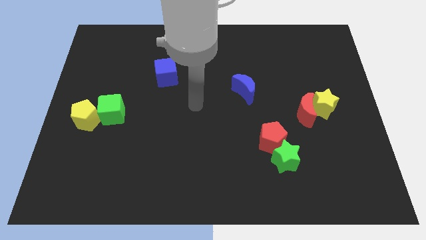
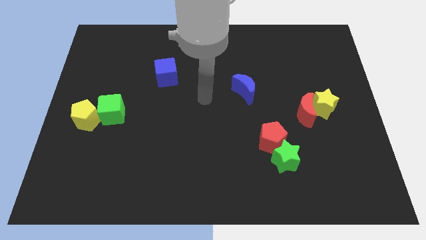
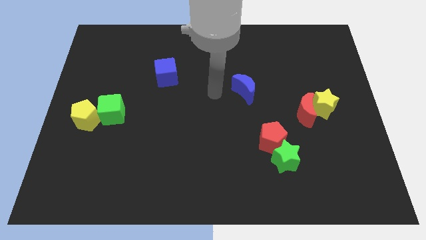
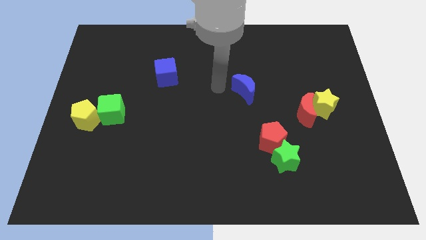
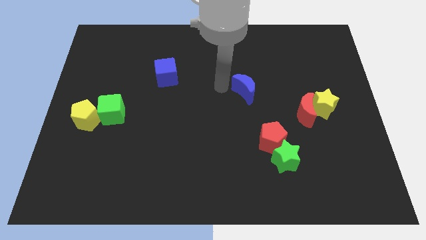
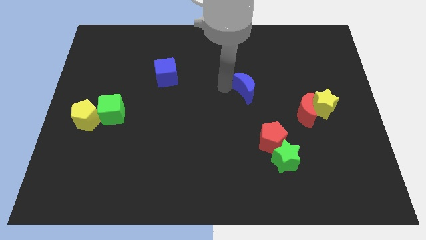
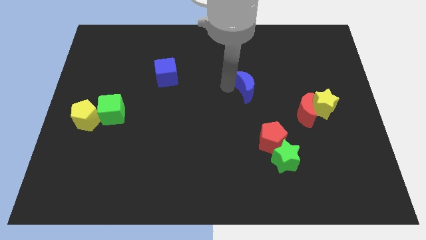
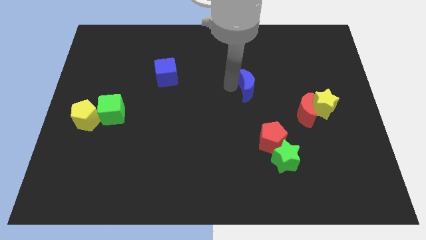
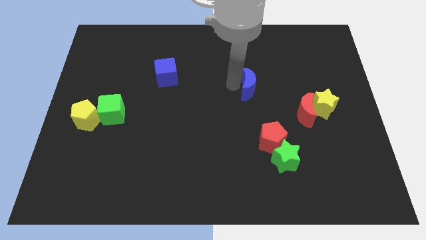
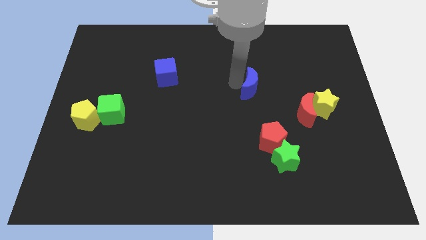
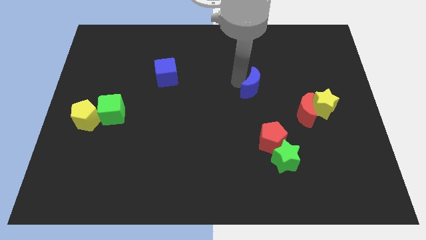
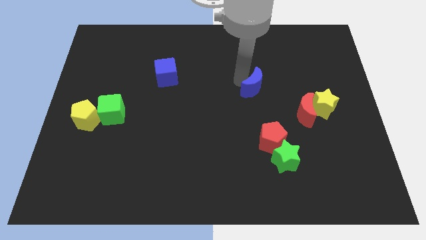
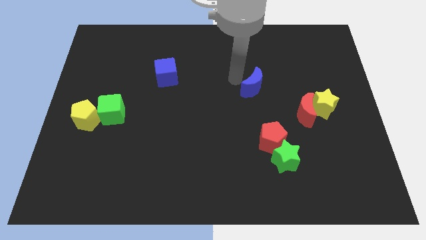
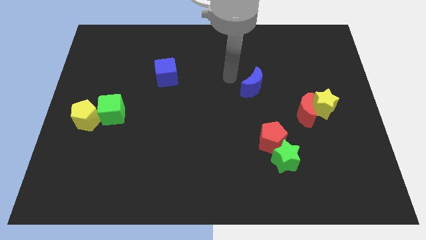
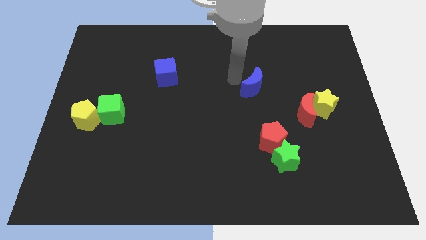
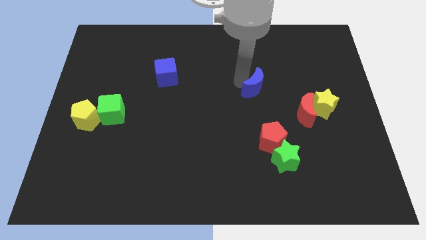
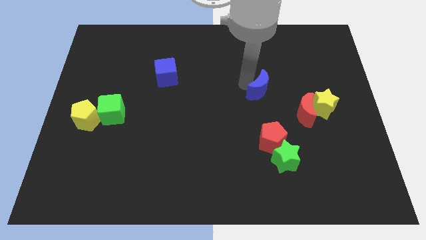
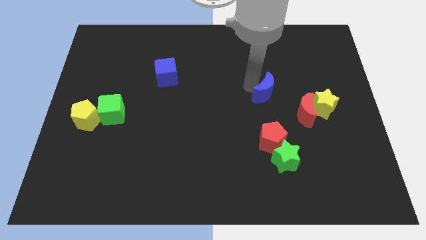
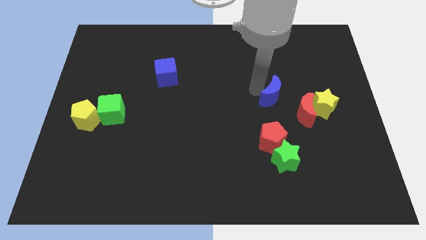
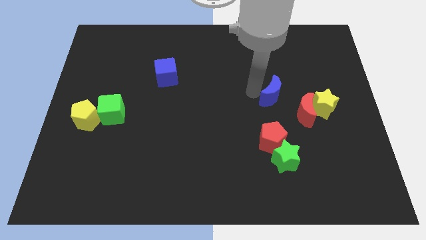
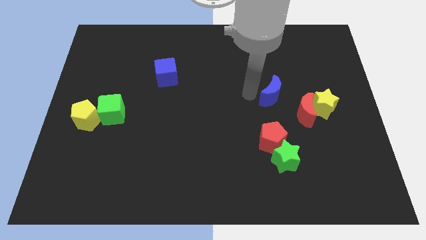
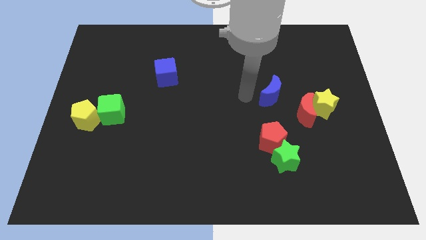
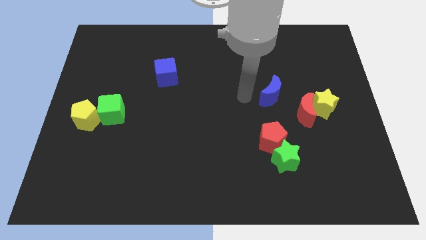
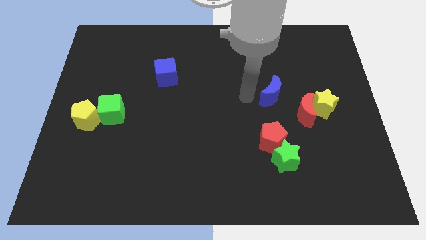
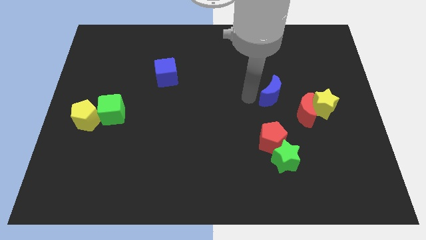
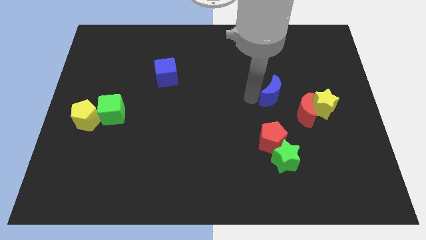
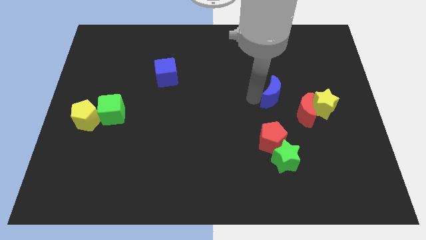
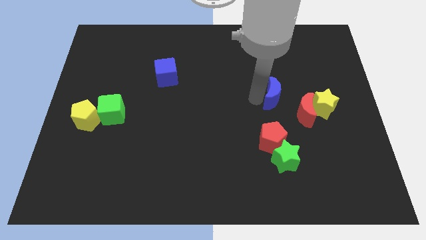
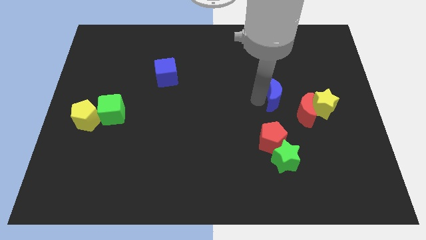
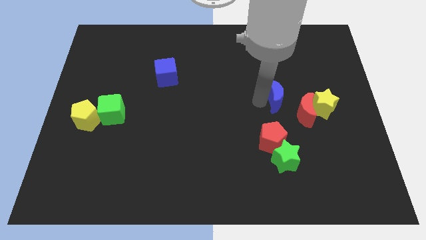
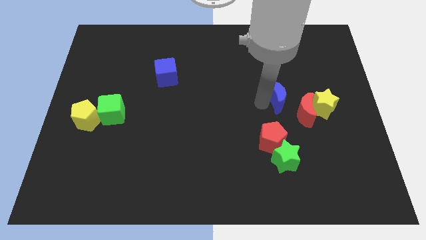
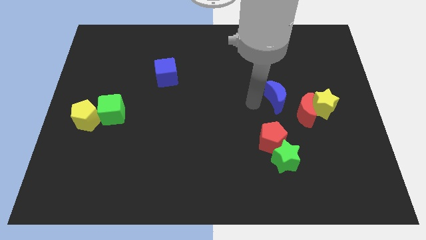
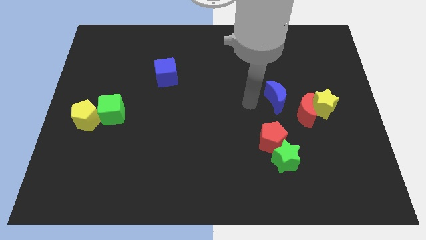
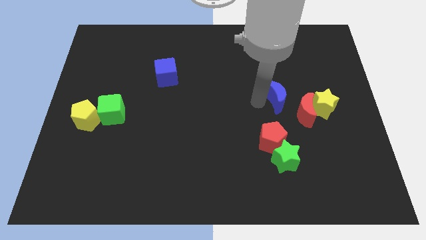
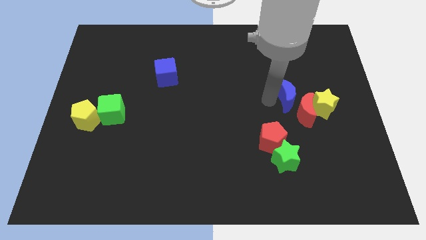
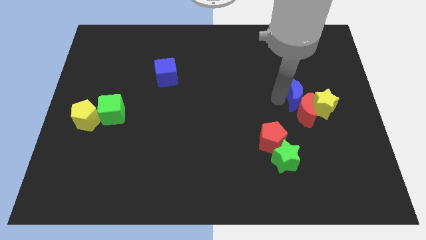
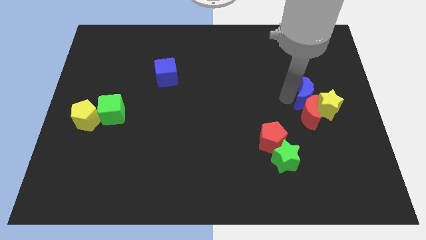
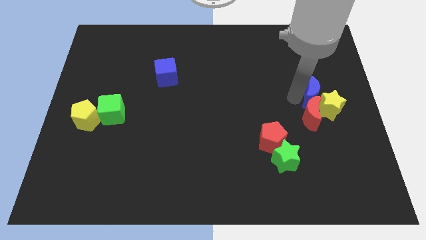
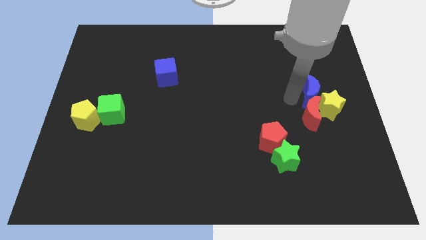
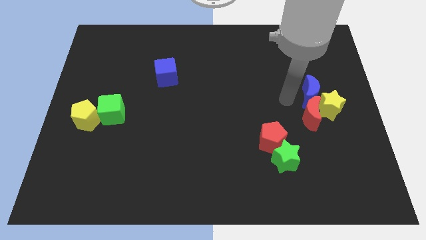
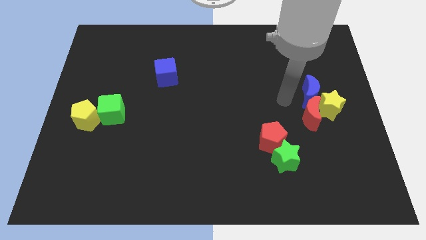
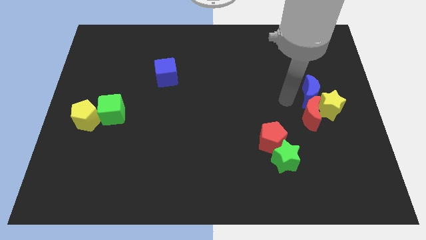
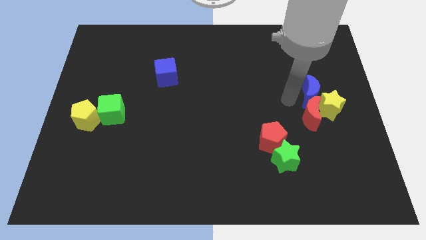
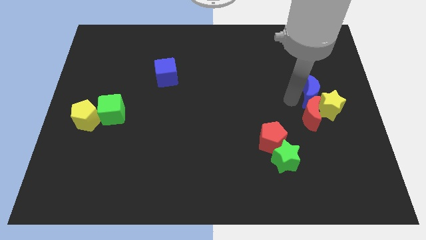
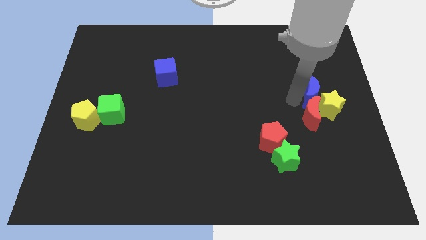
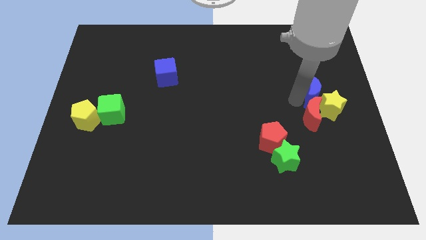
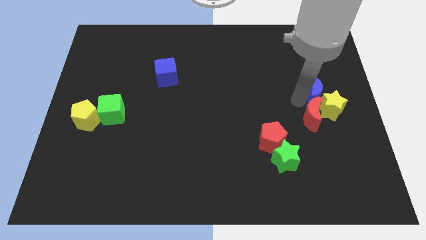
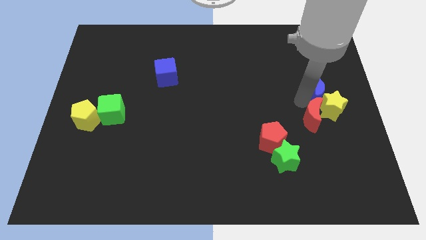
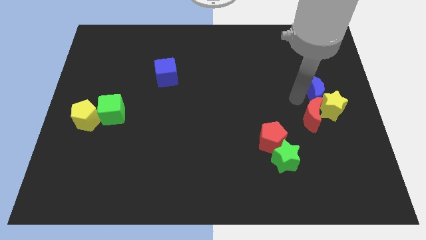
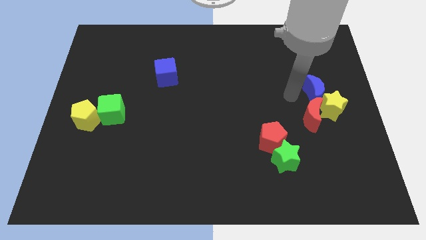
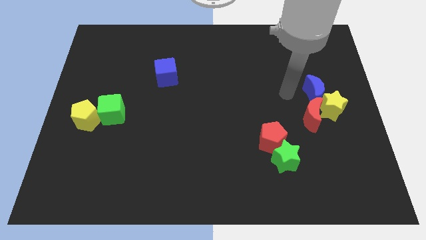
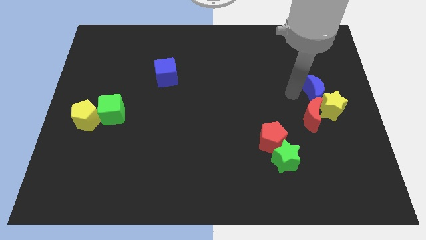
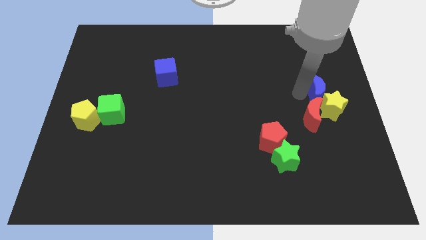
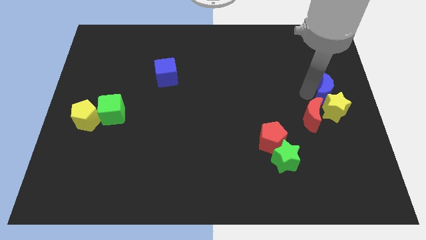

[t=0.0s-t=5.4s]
slide the blue moon to the right side
